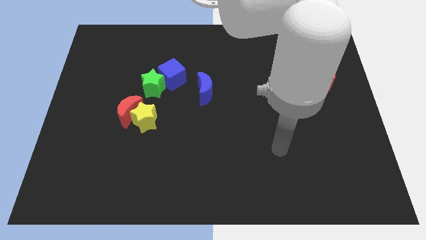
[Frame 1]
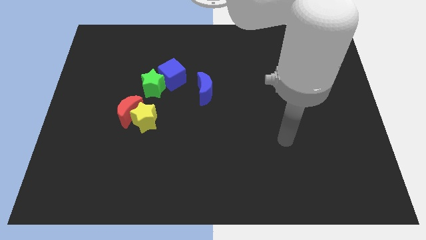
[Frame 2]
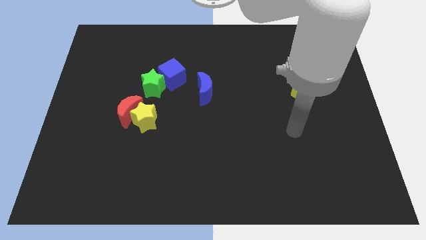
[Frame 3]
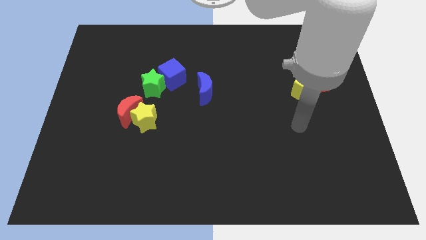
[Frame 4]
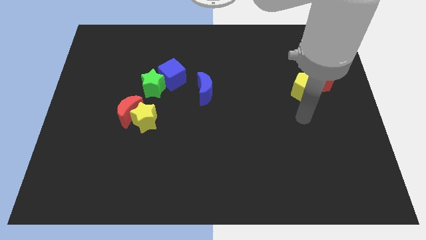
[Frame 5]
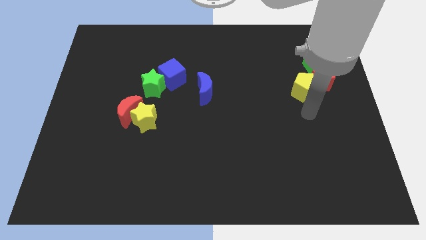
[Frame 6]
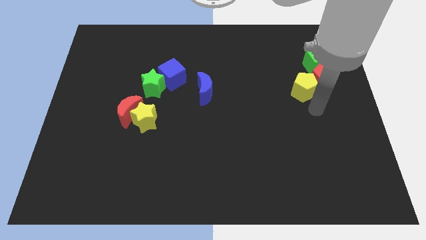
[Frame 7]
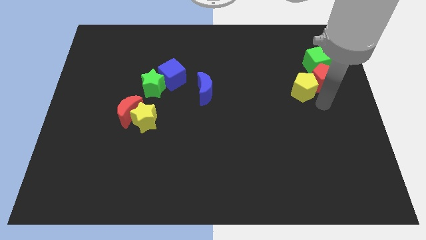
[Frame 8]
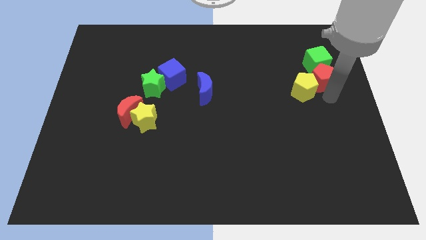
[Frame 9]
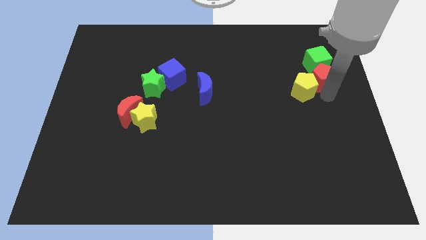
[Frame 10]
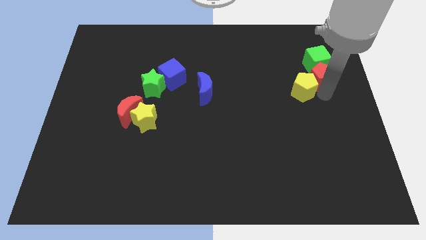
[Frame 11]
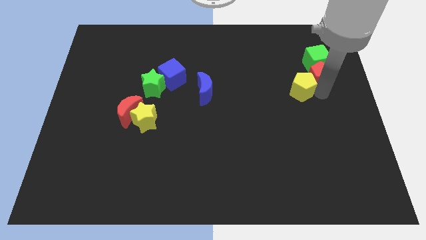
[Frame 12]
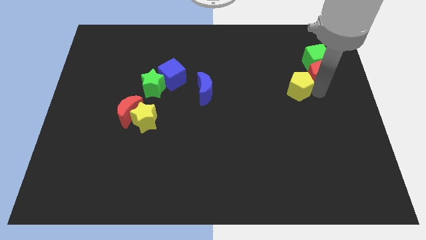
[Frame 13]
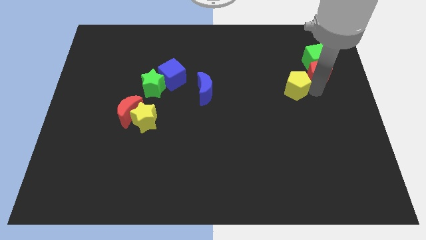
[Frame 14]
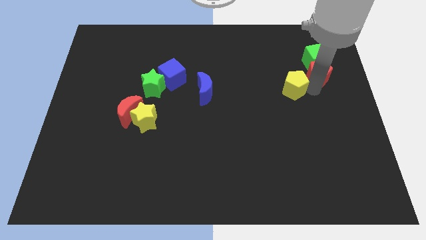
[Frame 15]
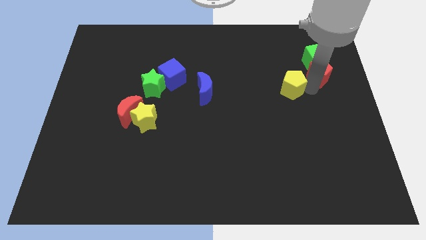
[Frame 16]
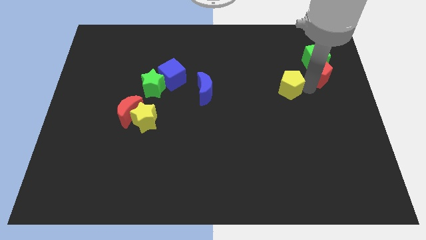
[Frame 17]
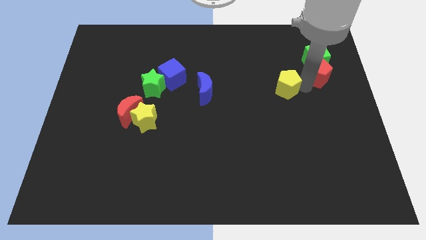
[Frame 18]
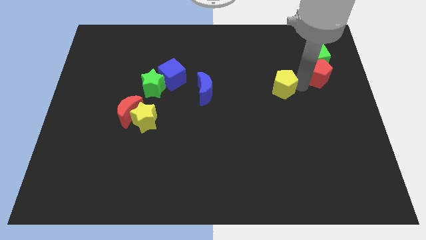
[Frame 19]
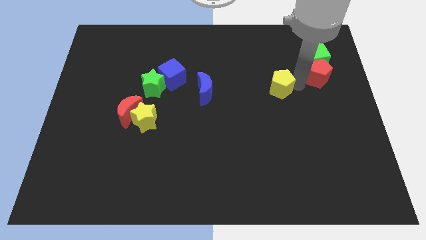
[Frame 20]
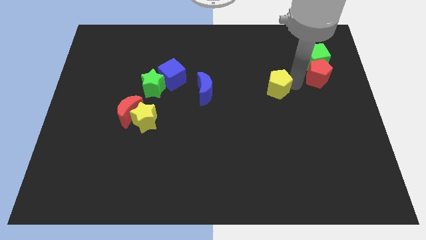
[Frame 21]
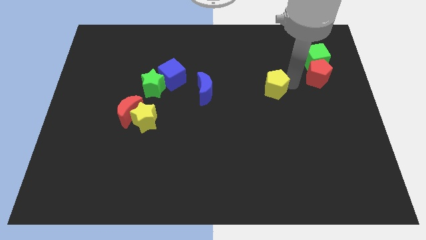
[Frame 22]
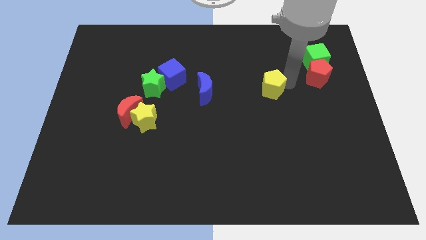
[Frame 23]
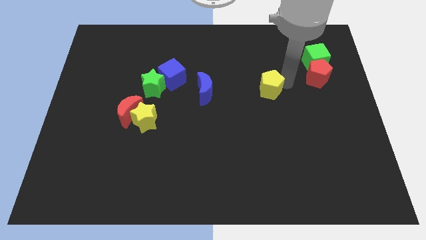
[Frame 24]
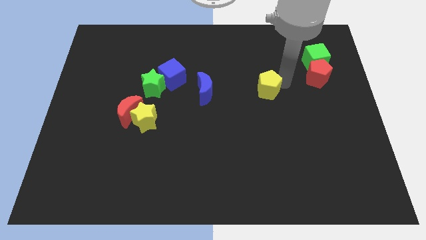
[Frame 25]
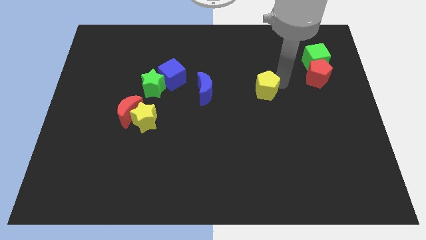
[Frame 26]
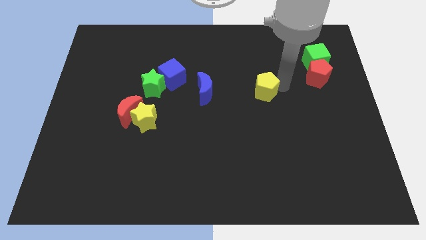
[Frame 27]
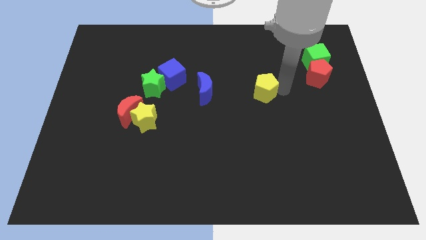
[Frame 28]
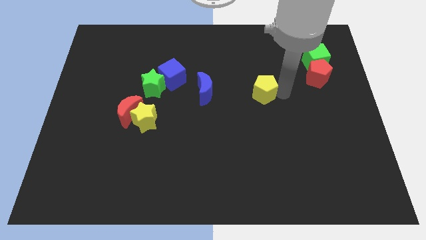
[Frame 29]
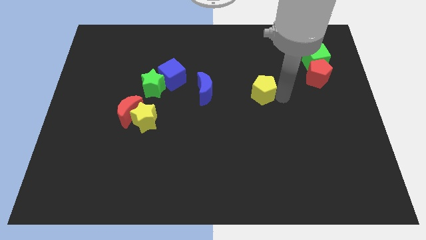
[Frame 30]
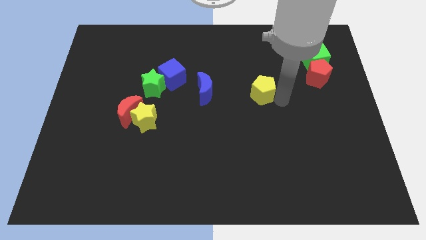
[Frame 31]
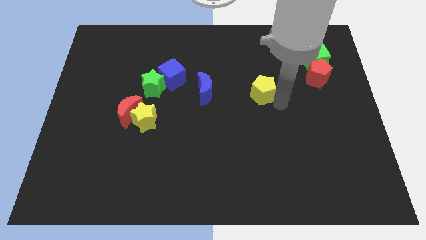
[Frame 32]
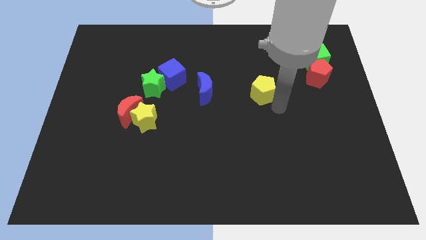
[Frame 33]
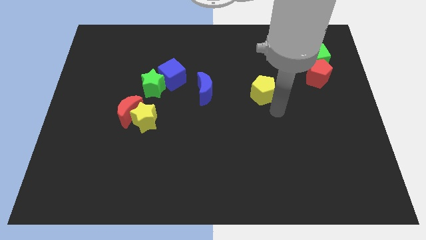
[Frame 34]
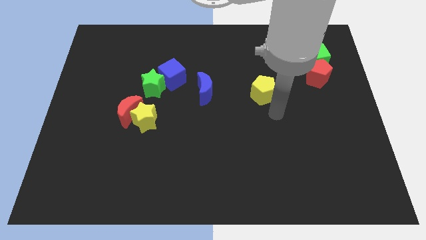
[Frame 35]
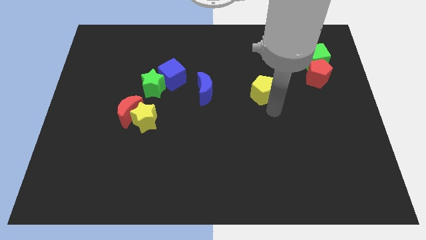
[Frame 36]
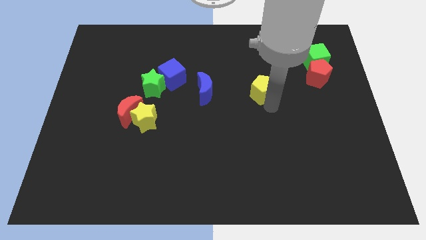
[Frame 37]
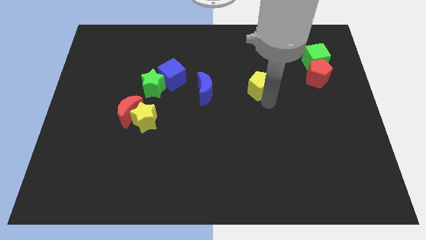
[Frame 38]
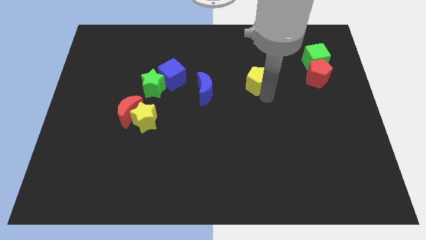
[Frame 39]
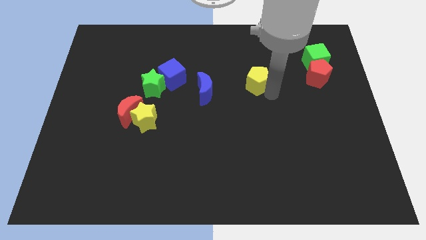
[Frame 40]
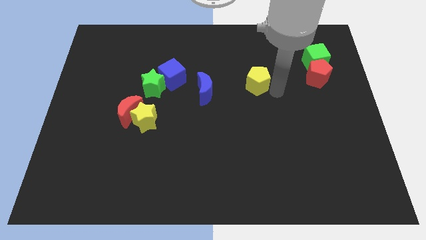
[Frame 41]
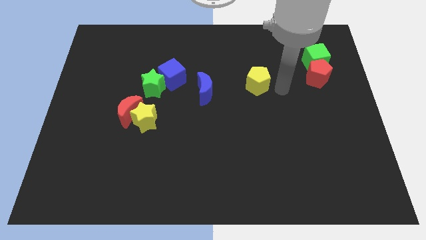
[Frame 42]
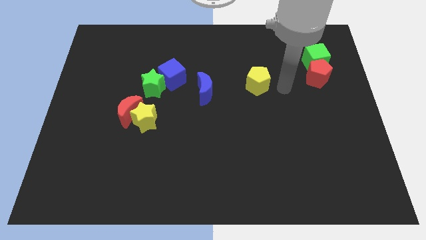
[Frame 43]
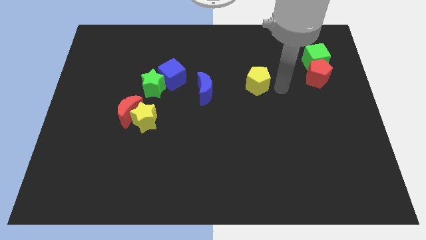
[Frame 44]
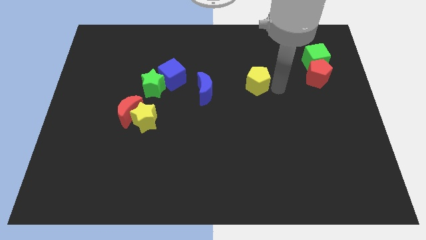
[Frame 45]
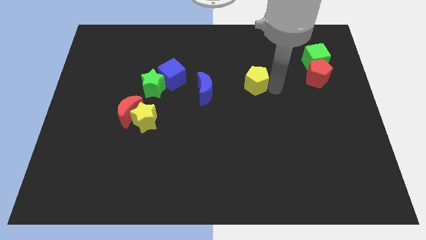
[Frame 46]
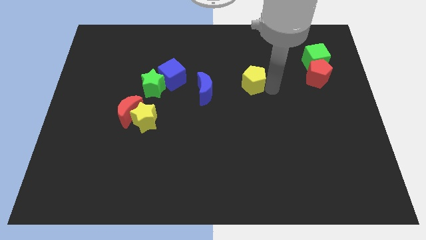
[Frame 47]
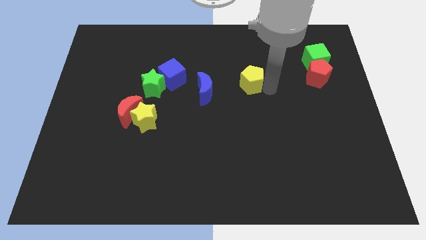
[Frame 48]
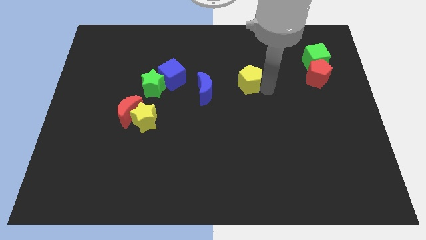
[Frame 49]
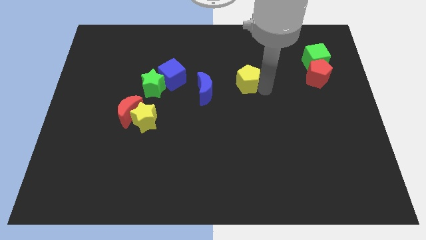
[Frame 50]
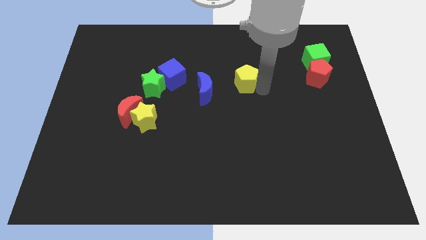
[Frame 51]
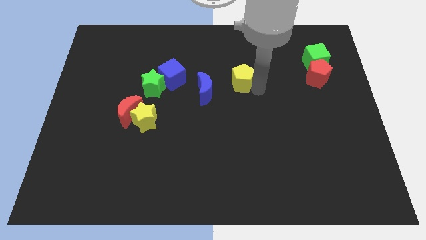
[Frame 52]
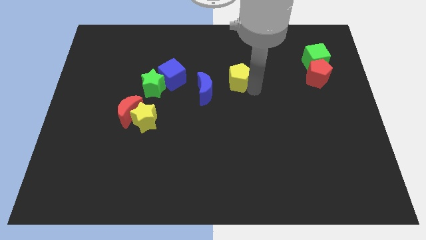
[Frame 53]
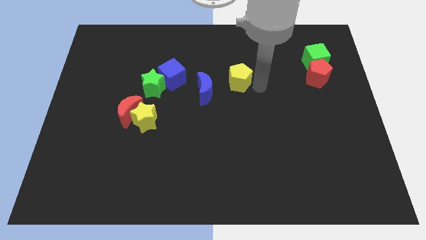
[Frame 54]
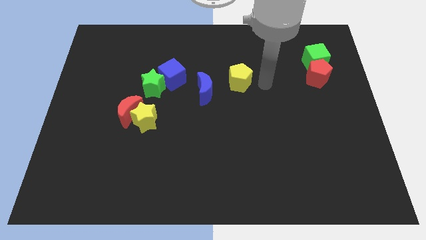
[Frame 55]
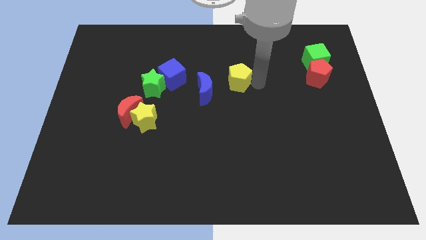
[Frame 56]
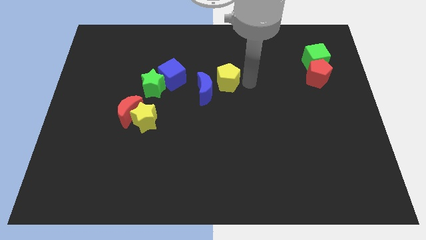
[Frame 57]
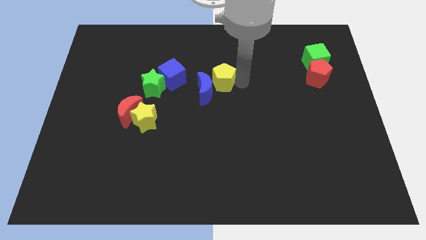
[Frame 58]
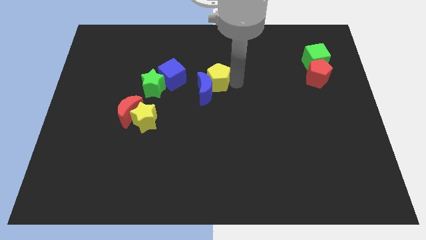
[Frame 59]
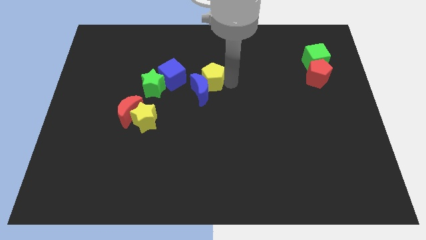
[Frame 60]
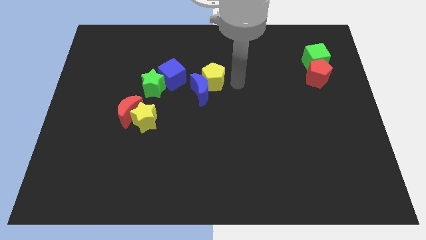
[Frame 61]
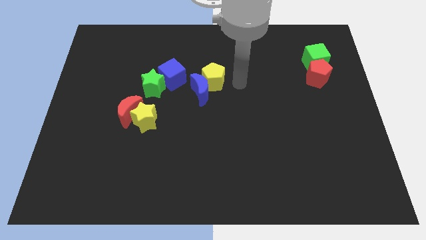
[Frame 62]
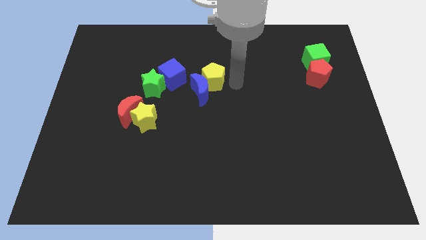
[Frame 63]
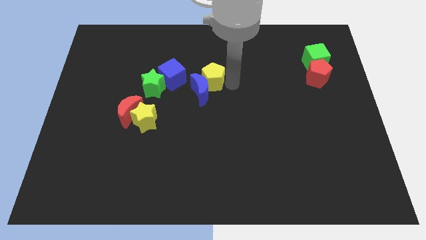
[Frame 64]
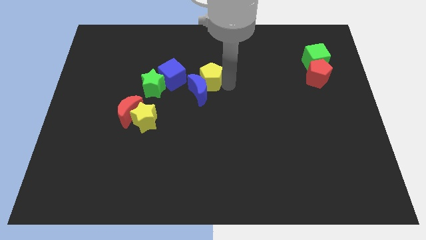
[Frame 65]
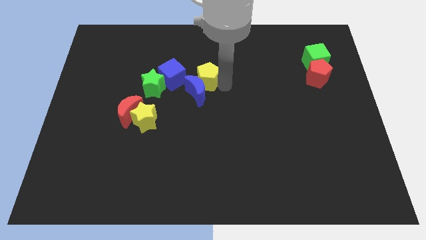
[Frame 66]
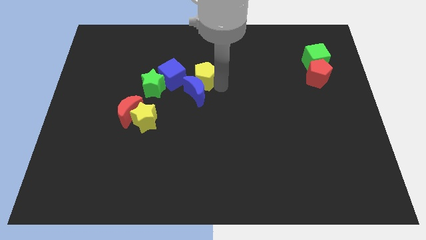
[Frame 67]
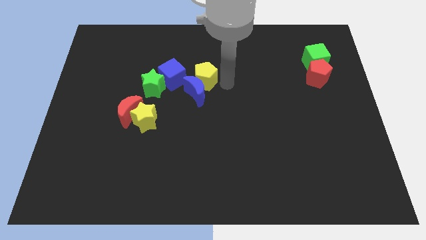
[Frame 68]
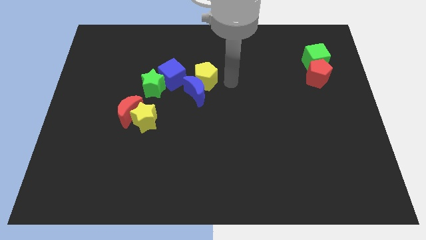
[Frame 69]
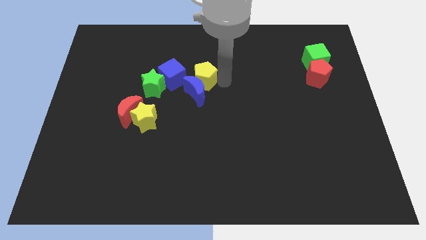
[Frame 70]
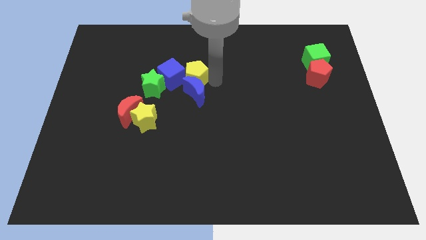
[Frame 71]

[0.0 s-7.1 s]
slide the yellow pentagon close to the blue cube

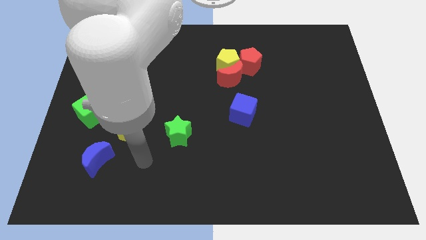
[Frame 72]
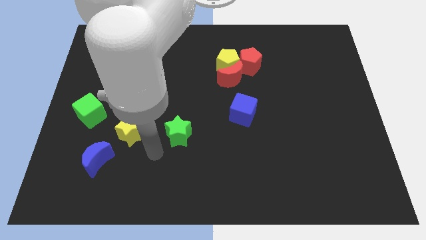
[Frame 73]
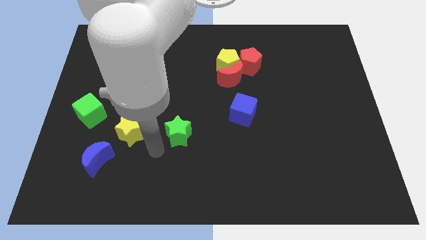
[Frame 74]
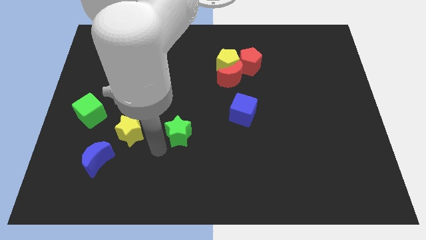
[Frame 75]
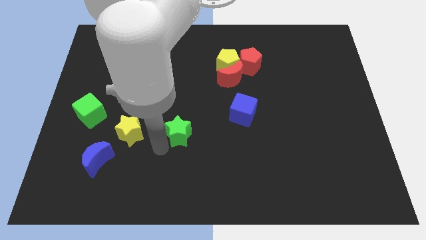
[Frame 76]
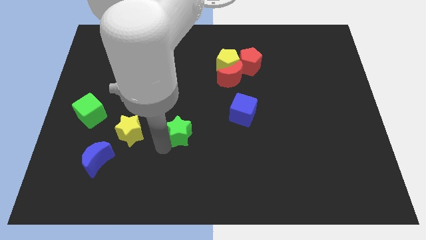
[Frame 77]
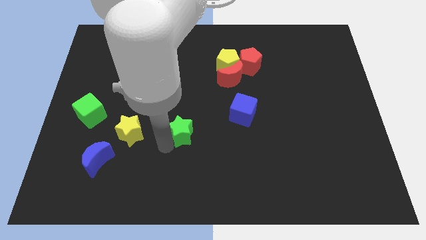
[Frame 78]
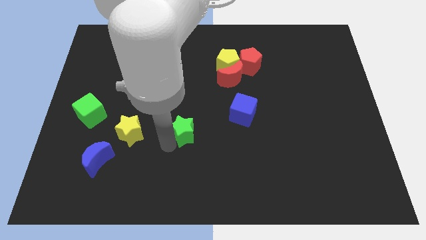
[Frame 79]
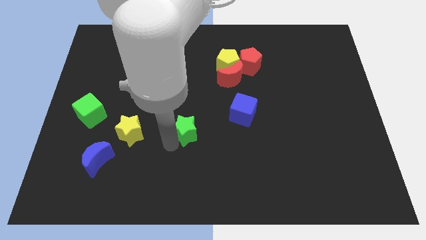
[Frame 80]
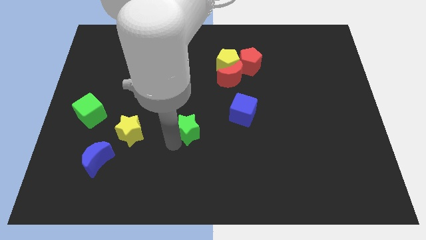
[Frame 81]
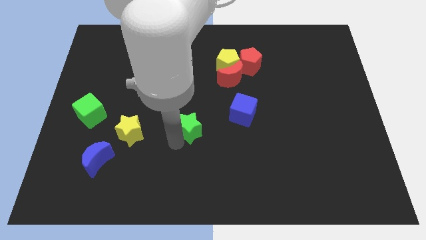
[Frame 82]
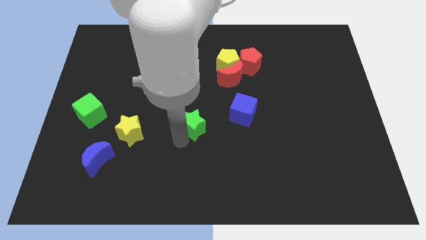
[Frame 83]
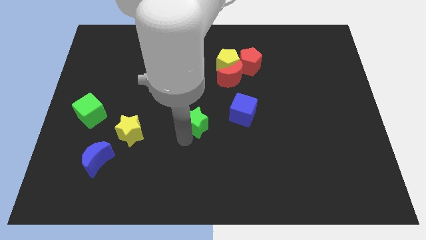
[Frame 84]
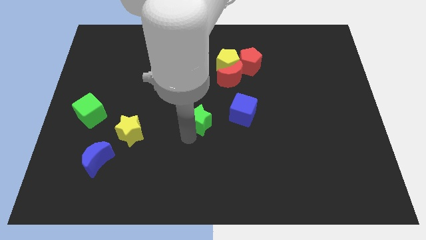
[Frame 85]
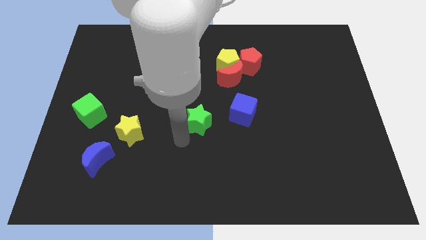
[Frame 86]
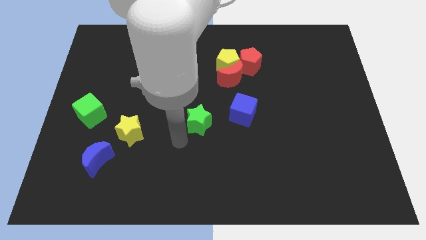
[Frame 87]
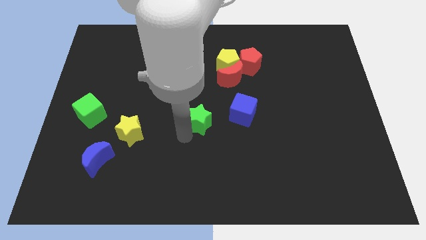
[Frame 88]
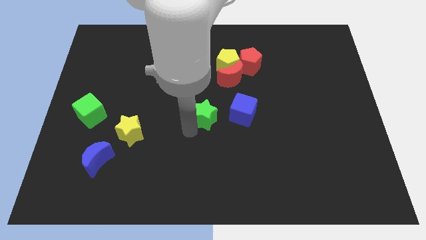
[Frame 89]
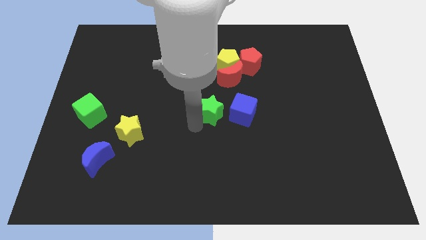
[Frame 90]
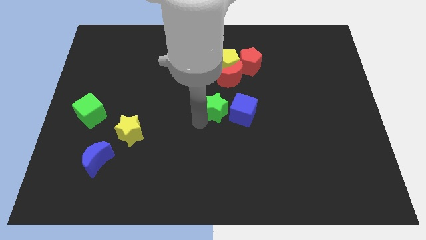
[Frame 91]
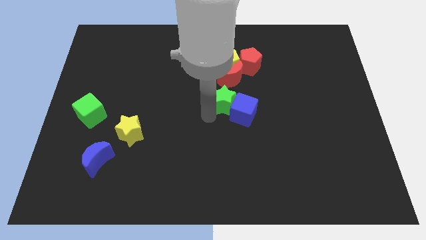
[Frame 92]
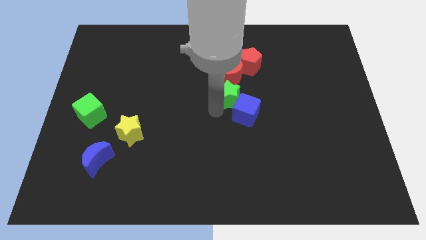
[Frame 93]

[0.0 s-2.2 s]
put the green star next to the red moon
